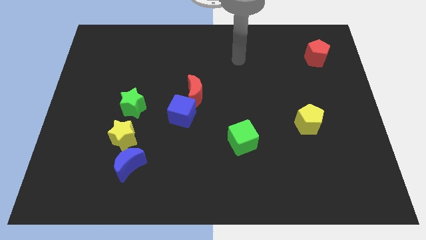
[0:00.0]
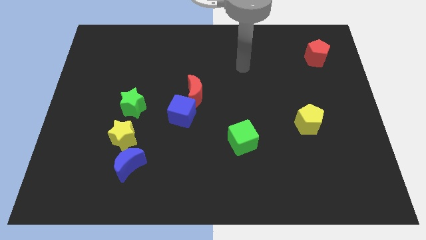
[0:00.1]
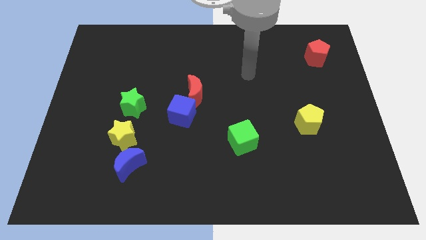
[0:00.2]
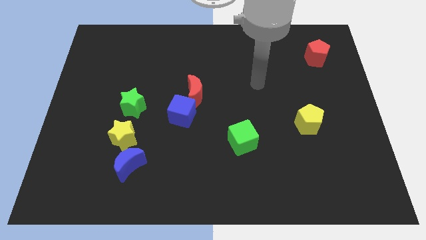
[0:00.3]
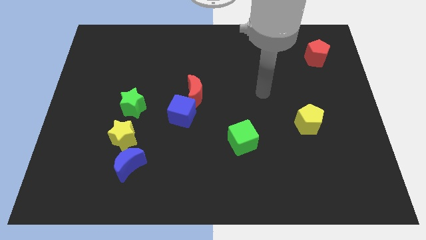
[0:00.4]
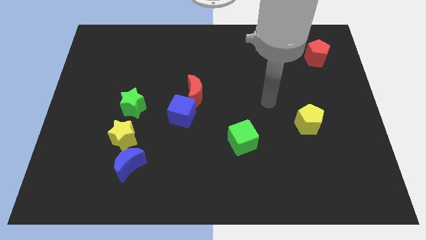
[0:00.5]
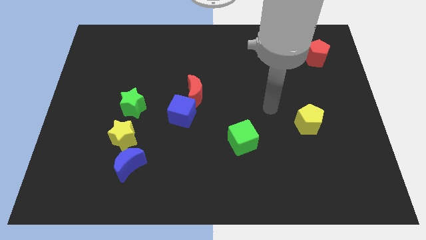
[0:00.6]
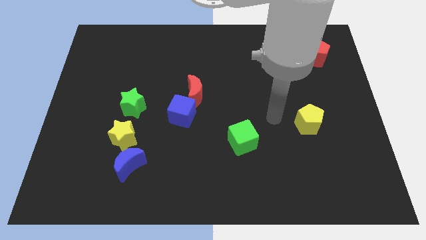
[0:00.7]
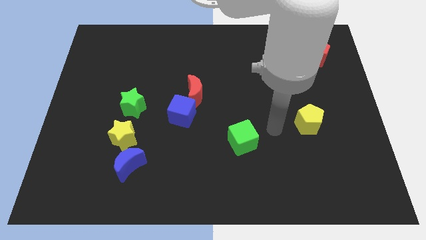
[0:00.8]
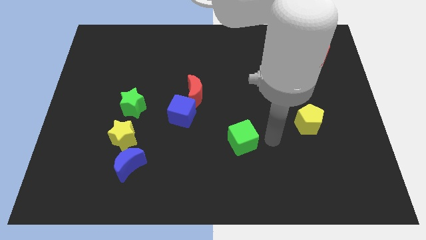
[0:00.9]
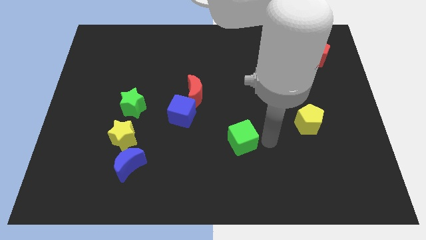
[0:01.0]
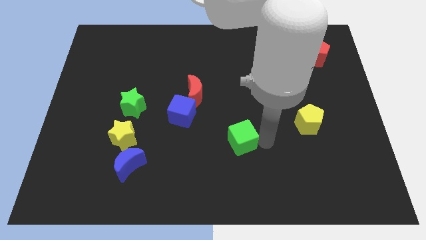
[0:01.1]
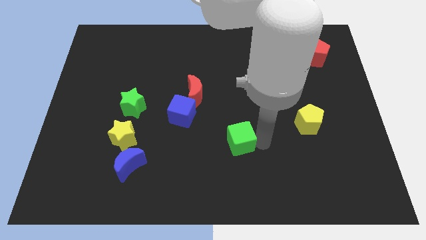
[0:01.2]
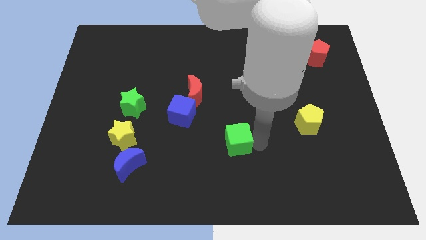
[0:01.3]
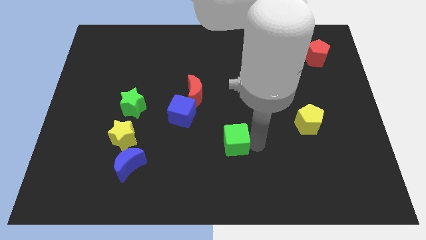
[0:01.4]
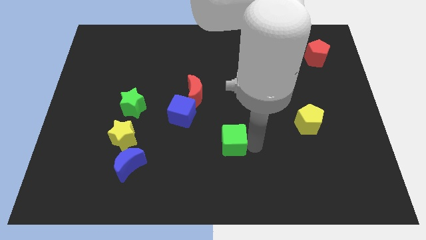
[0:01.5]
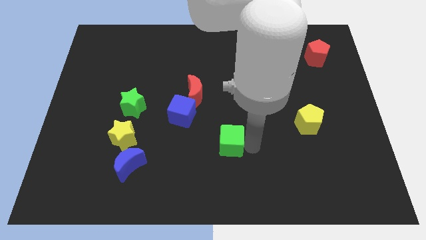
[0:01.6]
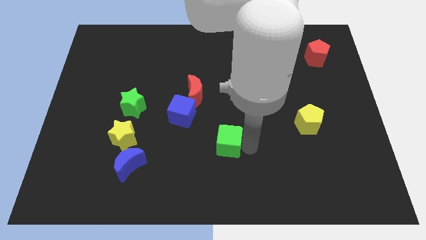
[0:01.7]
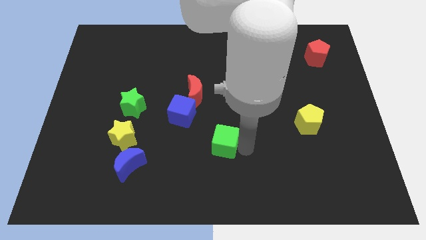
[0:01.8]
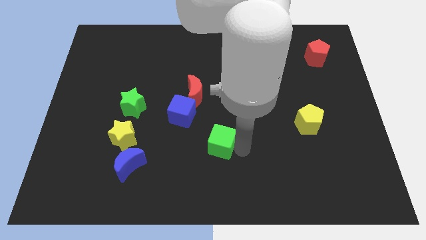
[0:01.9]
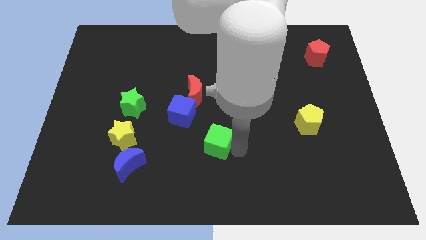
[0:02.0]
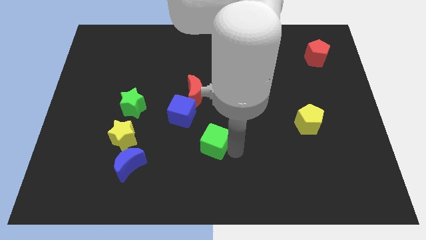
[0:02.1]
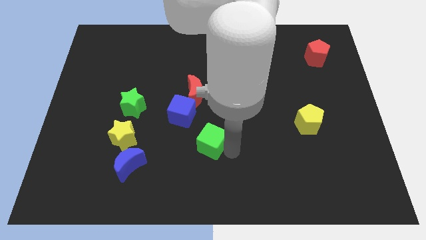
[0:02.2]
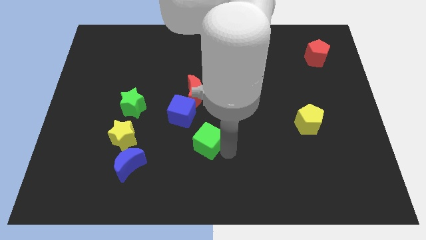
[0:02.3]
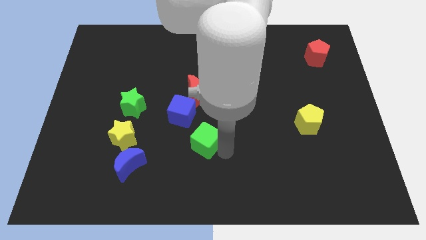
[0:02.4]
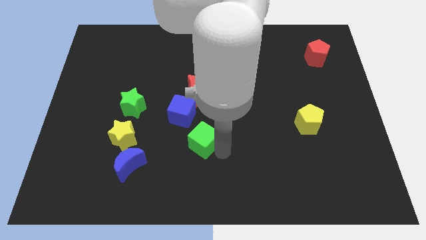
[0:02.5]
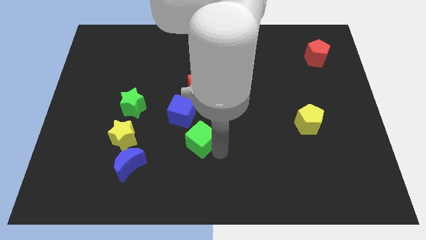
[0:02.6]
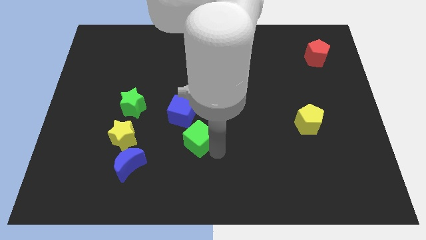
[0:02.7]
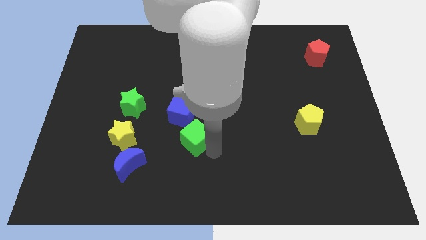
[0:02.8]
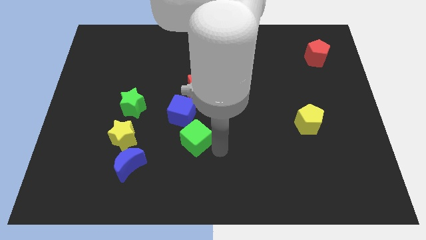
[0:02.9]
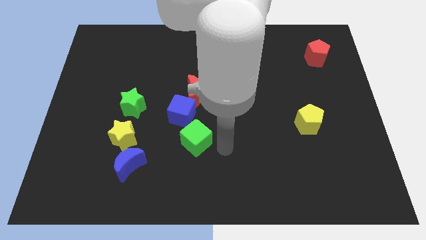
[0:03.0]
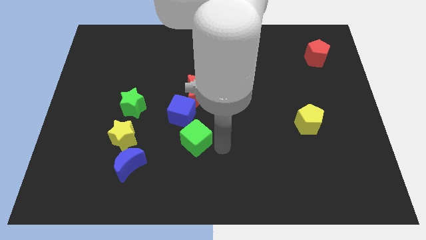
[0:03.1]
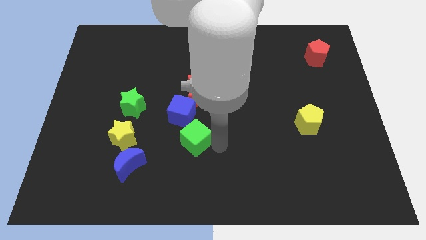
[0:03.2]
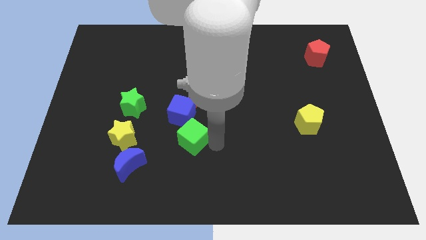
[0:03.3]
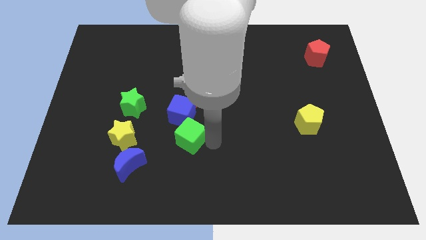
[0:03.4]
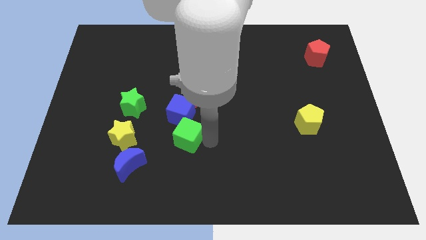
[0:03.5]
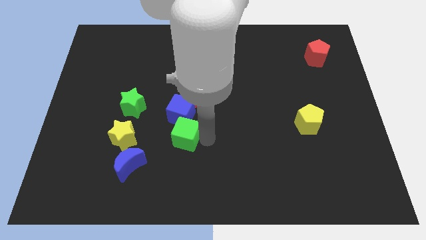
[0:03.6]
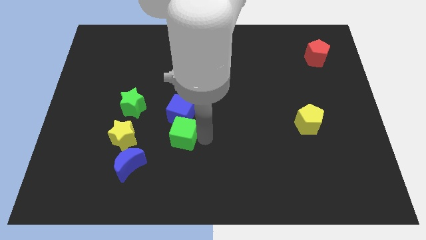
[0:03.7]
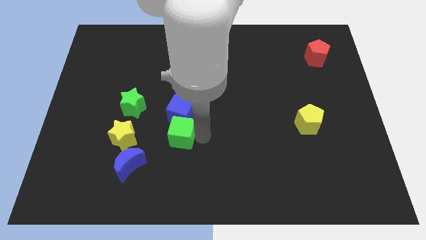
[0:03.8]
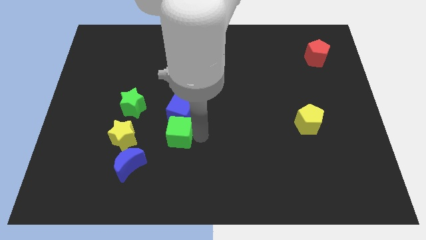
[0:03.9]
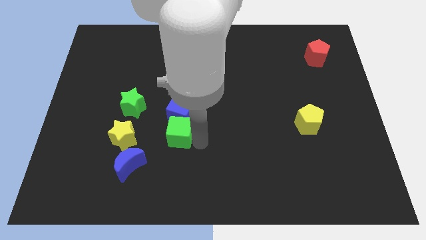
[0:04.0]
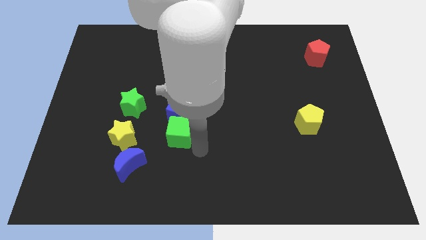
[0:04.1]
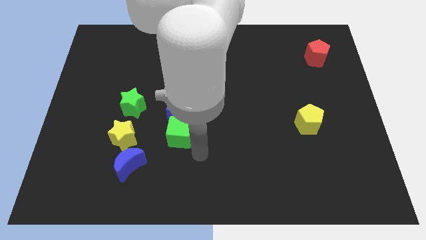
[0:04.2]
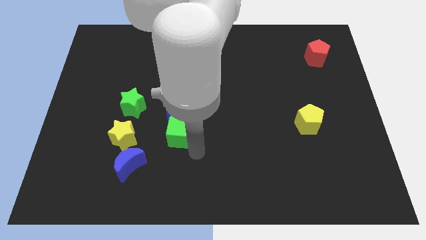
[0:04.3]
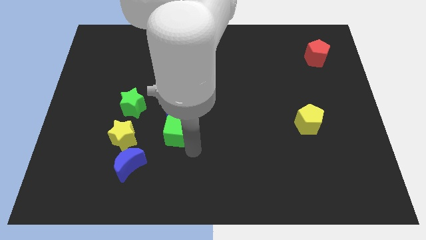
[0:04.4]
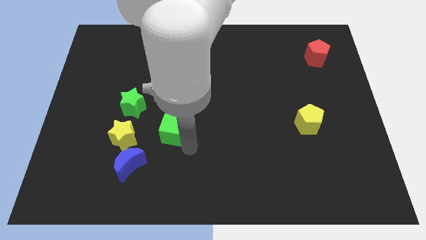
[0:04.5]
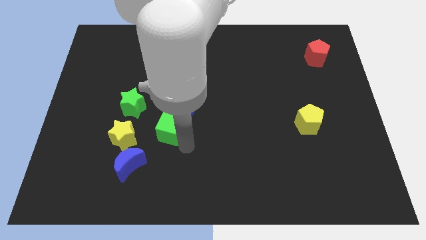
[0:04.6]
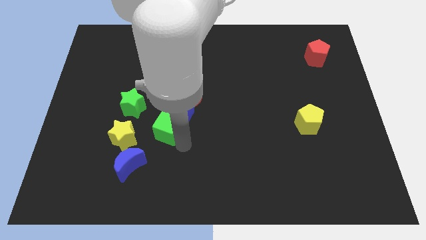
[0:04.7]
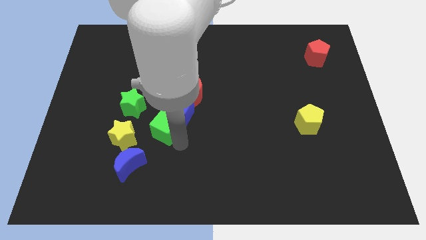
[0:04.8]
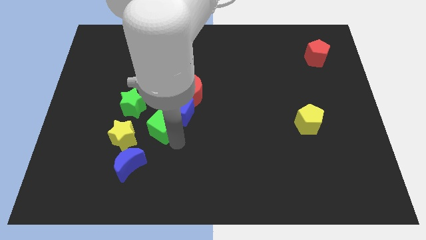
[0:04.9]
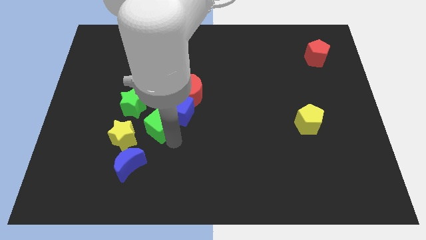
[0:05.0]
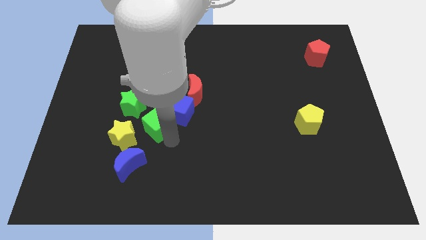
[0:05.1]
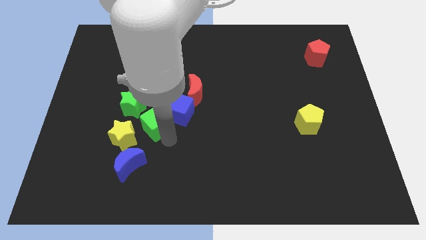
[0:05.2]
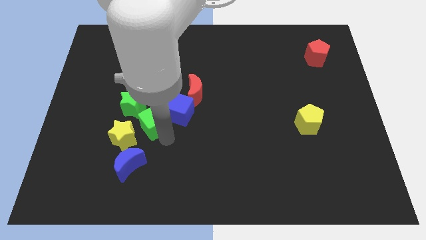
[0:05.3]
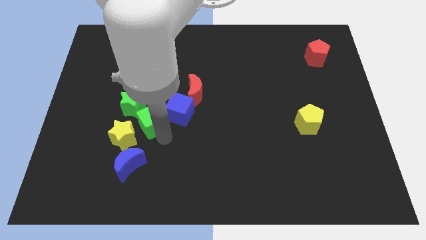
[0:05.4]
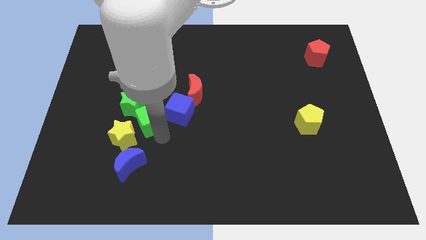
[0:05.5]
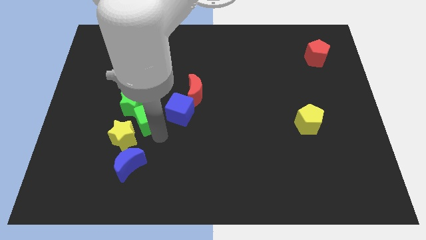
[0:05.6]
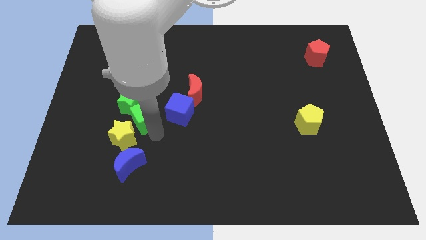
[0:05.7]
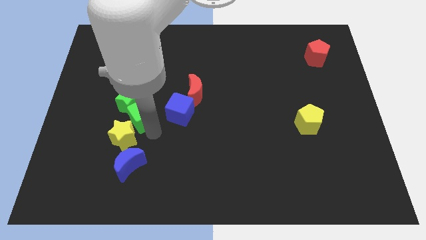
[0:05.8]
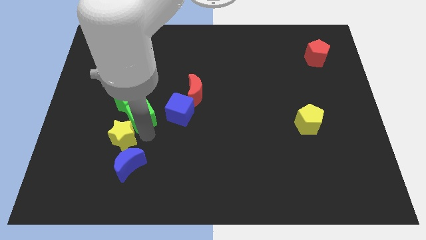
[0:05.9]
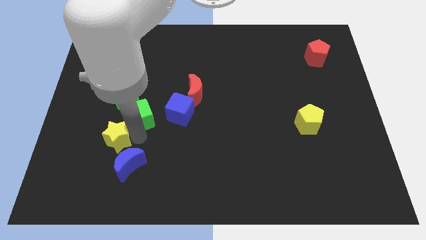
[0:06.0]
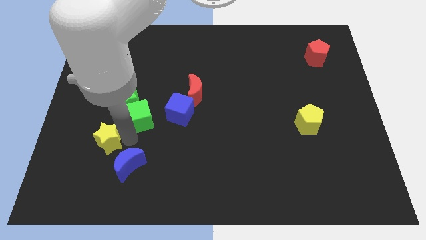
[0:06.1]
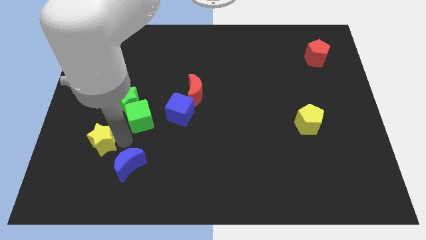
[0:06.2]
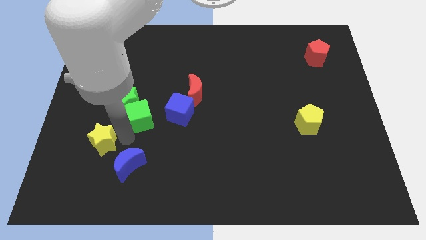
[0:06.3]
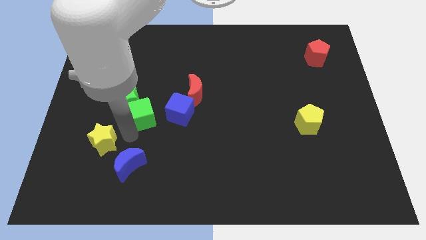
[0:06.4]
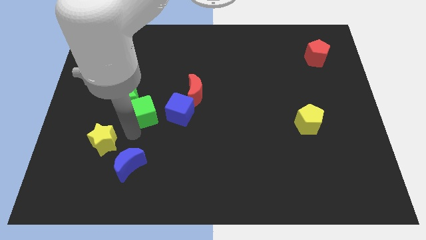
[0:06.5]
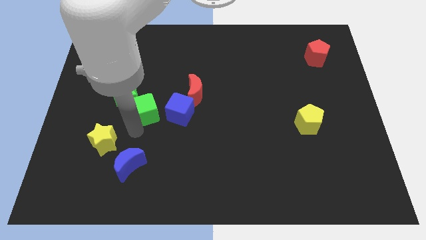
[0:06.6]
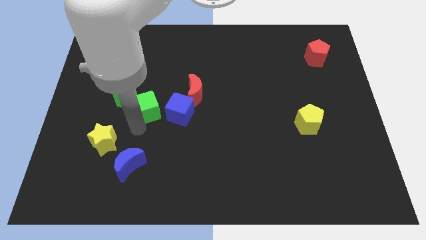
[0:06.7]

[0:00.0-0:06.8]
move the green cube to the top left of the blue cube

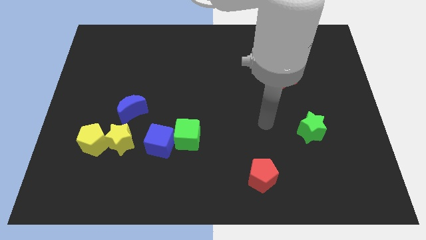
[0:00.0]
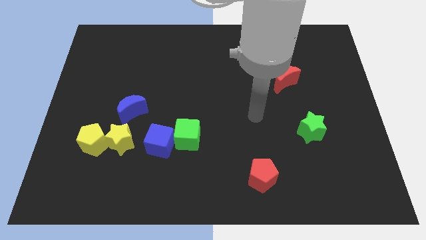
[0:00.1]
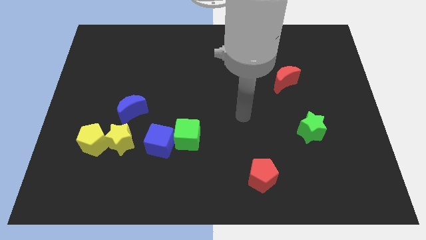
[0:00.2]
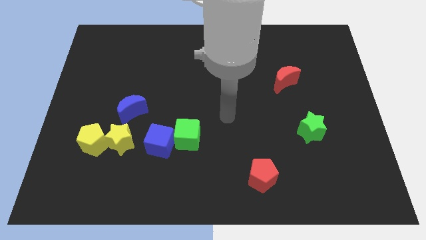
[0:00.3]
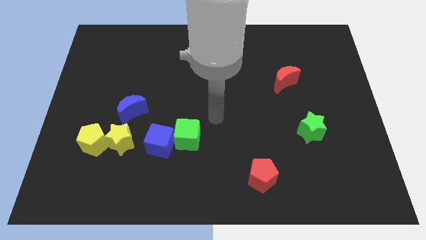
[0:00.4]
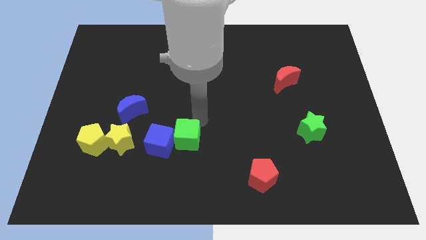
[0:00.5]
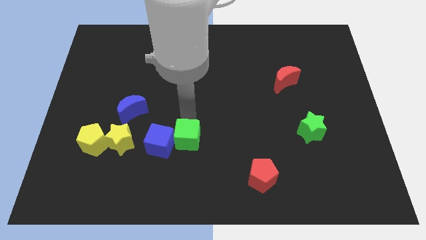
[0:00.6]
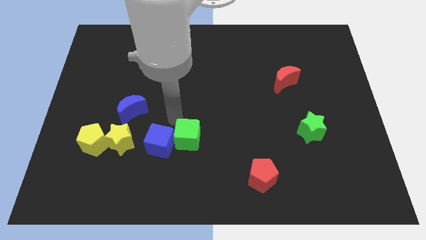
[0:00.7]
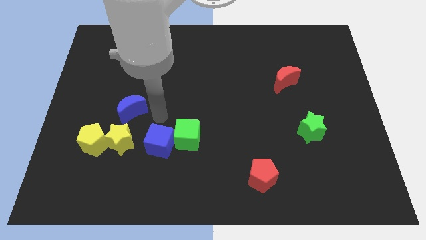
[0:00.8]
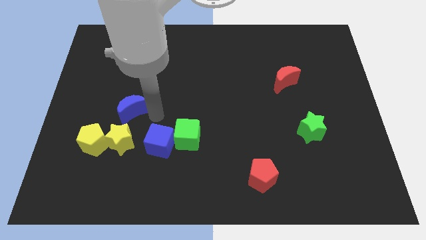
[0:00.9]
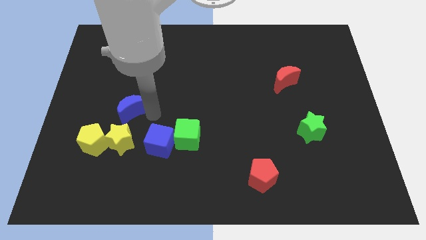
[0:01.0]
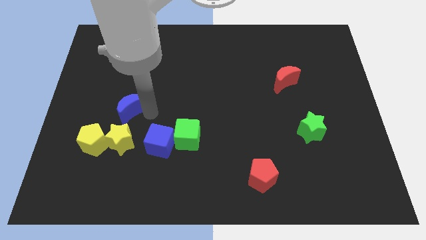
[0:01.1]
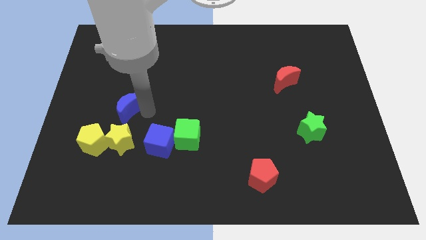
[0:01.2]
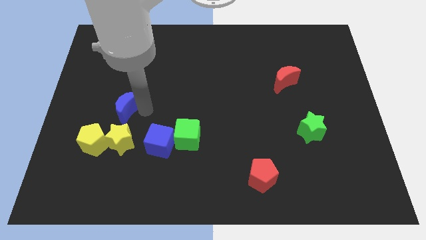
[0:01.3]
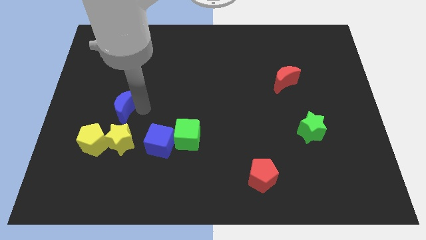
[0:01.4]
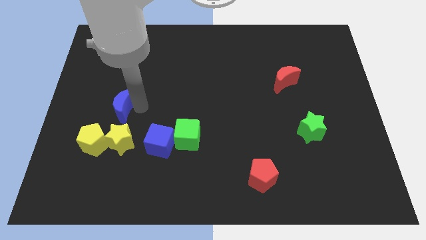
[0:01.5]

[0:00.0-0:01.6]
move the blue moon above the yellow pentagon
